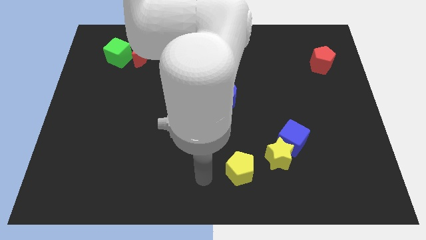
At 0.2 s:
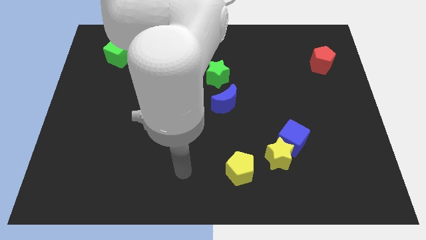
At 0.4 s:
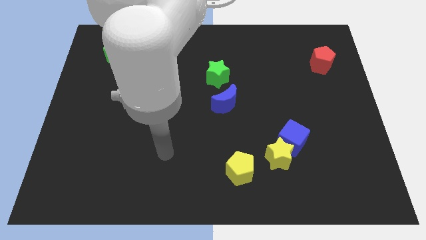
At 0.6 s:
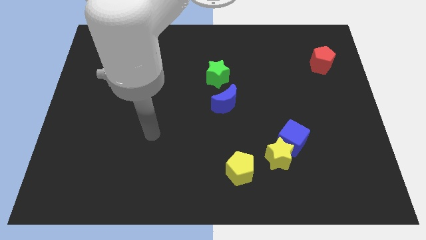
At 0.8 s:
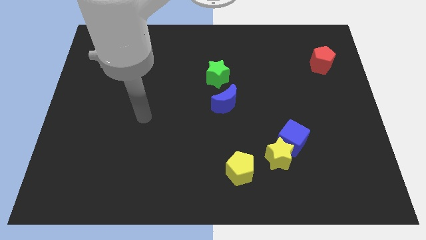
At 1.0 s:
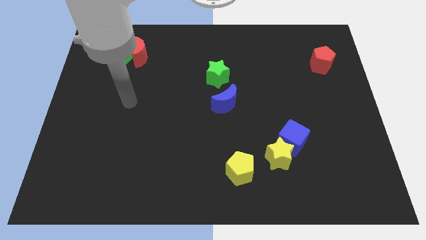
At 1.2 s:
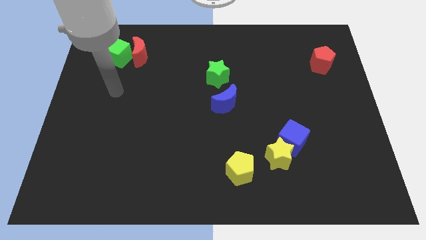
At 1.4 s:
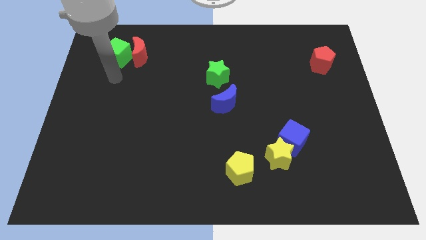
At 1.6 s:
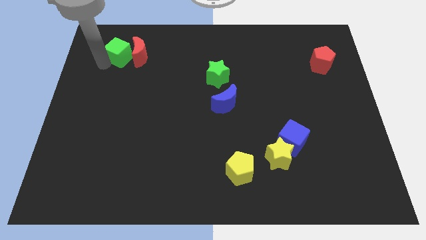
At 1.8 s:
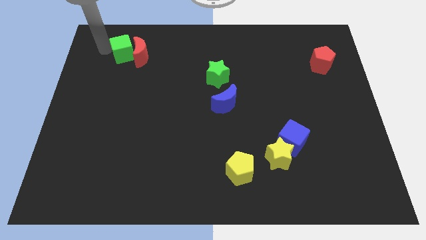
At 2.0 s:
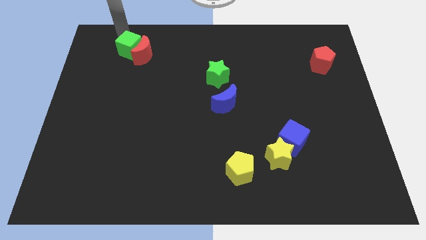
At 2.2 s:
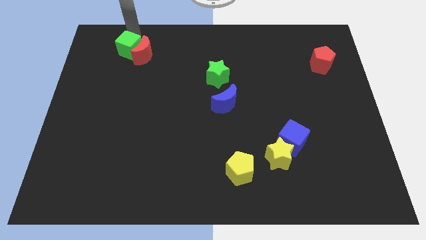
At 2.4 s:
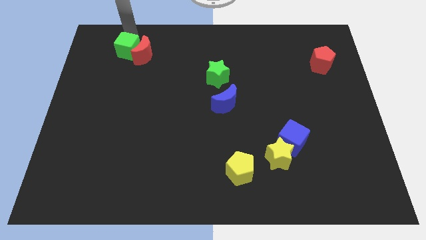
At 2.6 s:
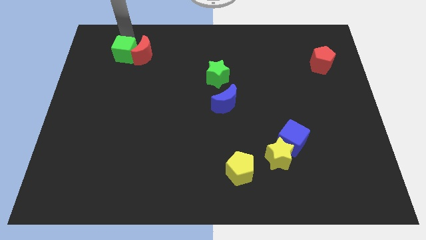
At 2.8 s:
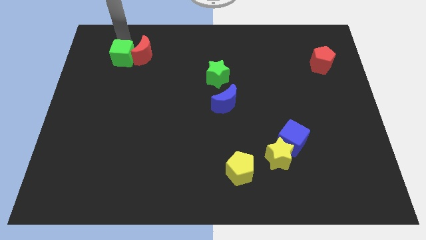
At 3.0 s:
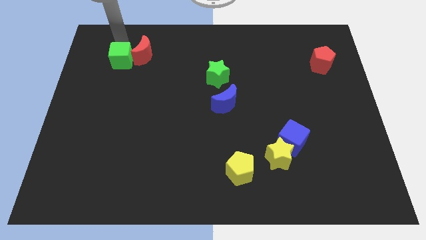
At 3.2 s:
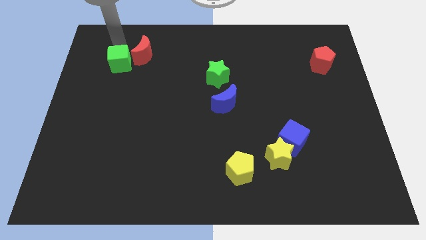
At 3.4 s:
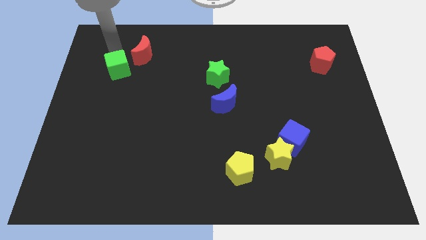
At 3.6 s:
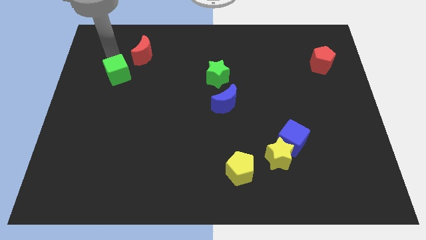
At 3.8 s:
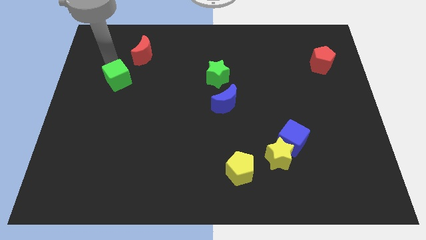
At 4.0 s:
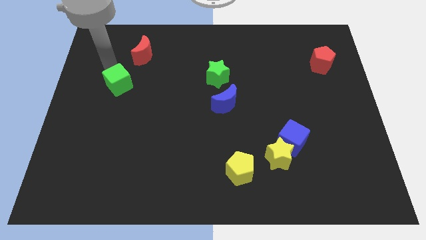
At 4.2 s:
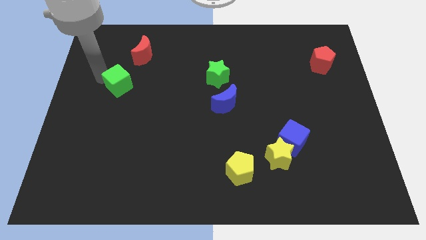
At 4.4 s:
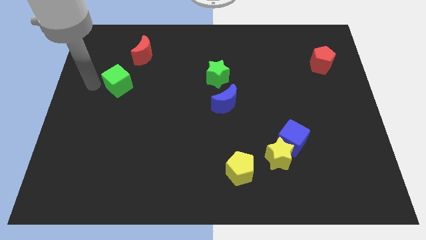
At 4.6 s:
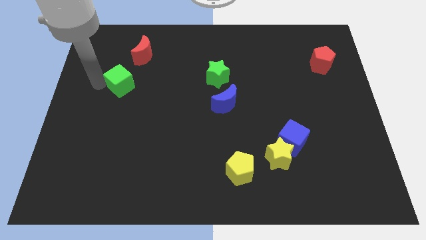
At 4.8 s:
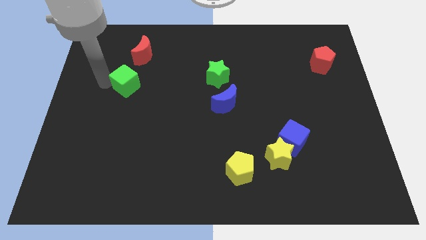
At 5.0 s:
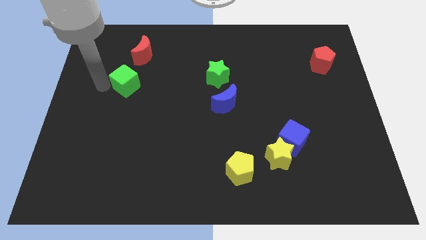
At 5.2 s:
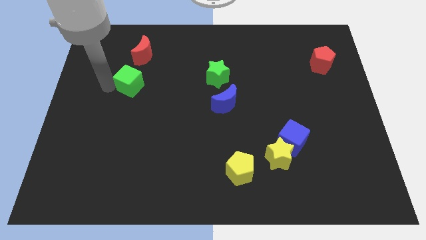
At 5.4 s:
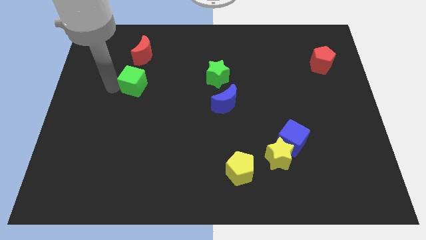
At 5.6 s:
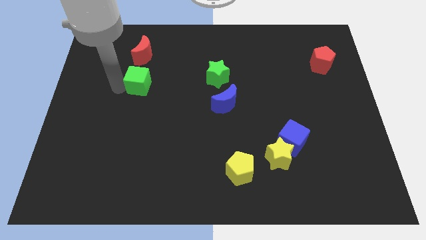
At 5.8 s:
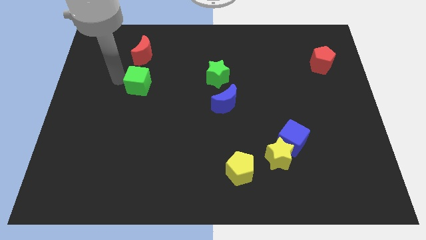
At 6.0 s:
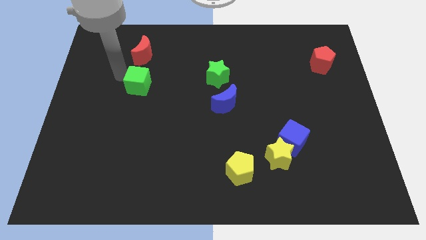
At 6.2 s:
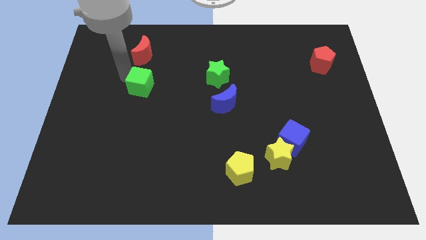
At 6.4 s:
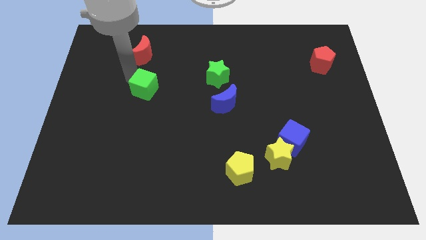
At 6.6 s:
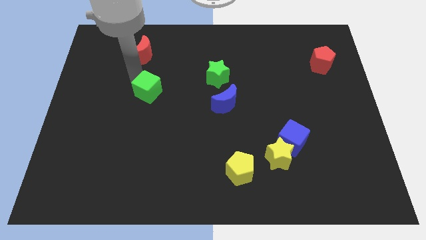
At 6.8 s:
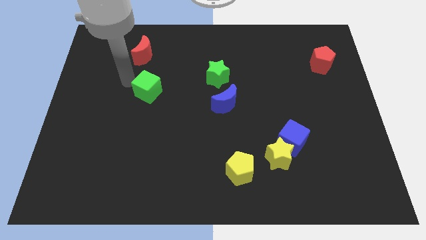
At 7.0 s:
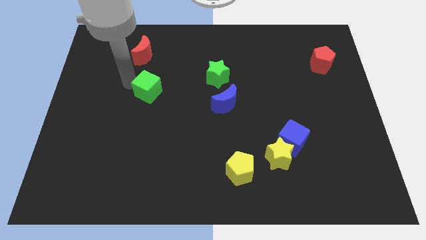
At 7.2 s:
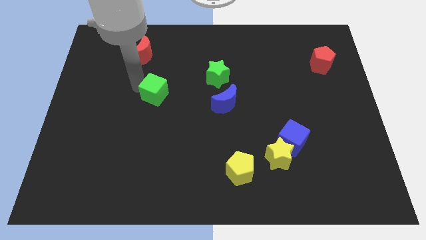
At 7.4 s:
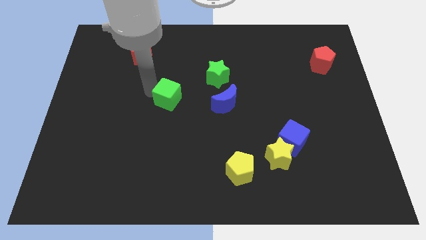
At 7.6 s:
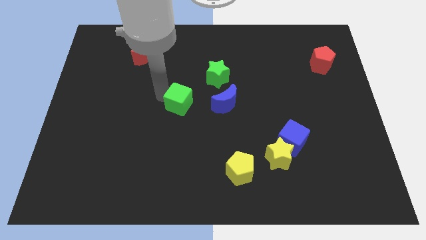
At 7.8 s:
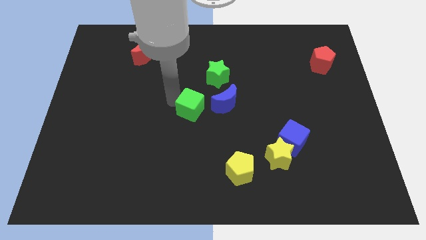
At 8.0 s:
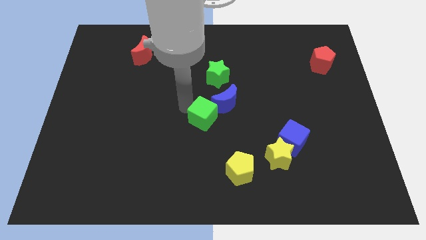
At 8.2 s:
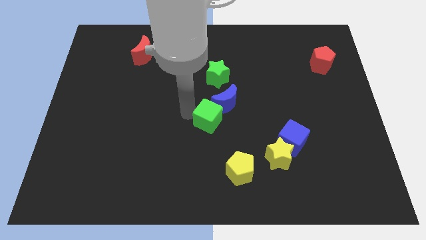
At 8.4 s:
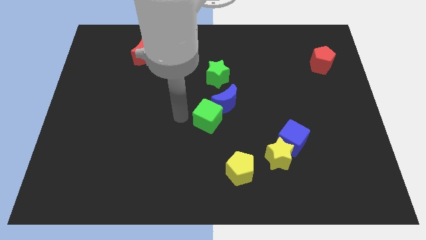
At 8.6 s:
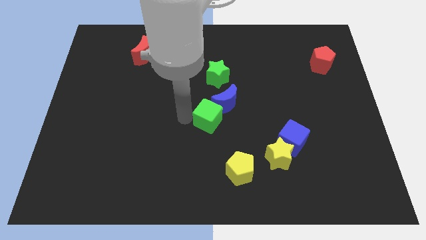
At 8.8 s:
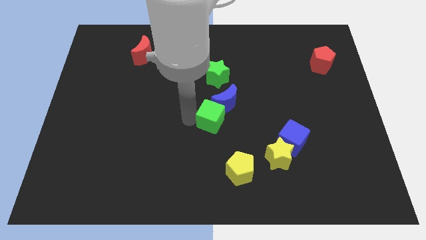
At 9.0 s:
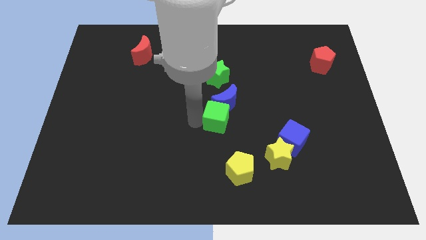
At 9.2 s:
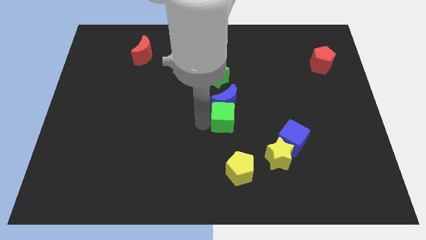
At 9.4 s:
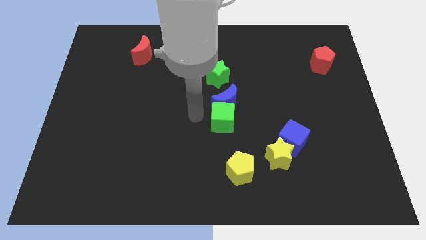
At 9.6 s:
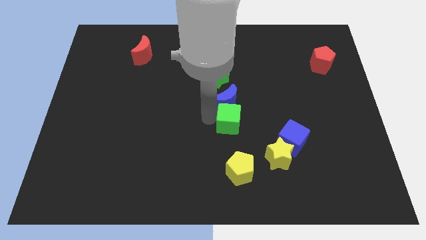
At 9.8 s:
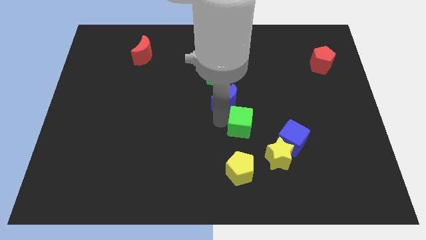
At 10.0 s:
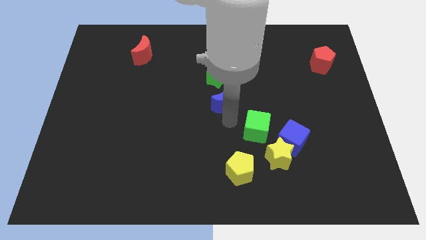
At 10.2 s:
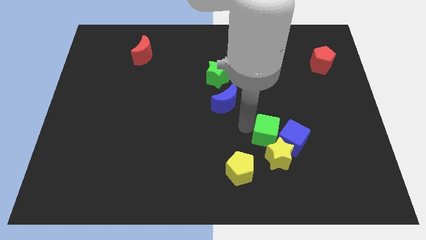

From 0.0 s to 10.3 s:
put the green cube close to the blue cube

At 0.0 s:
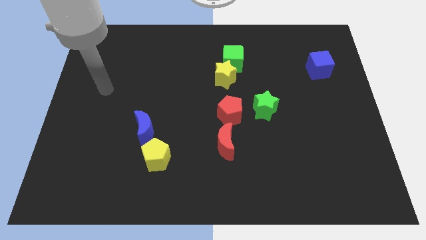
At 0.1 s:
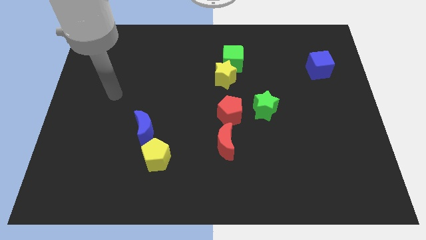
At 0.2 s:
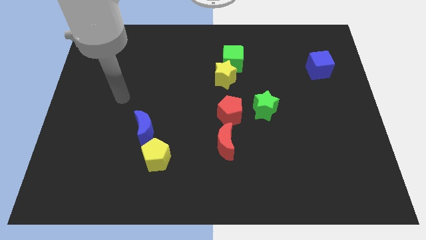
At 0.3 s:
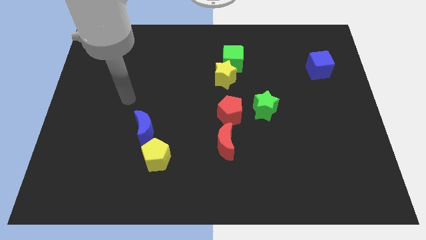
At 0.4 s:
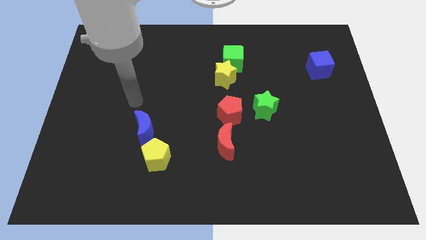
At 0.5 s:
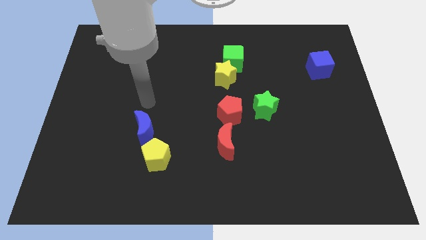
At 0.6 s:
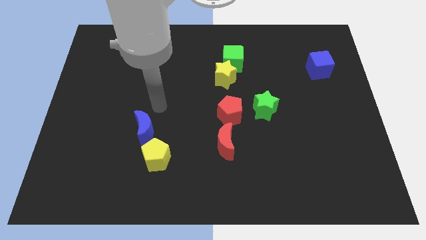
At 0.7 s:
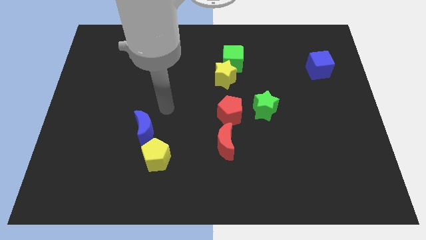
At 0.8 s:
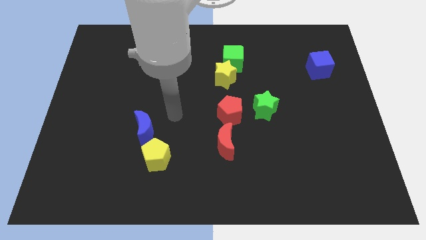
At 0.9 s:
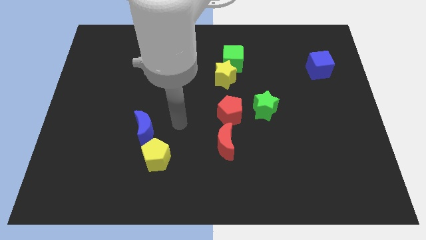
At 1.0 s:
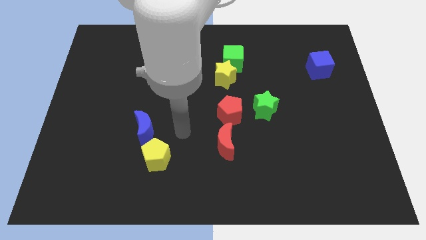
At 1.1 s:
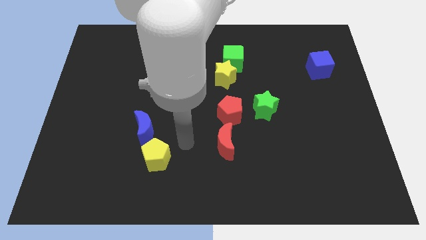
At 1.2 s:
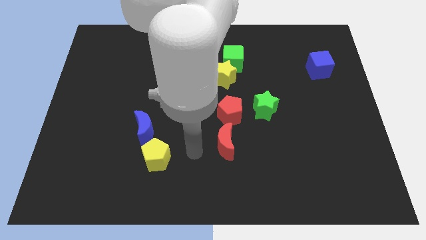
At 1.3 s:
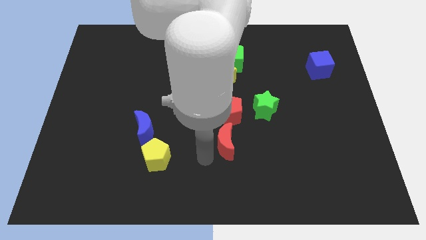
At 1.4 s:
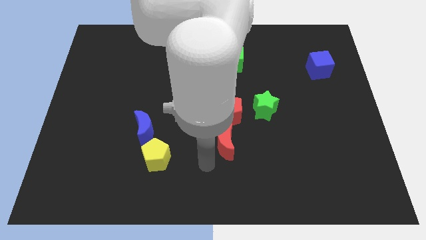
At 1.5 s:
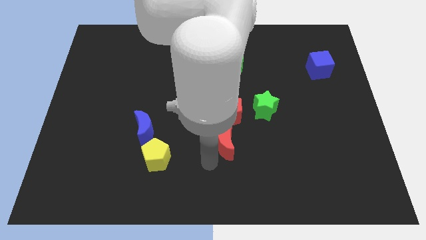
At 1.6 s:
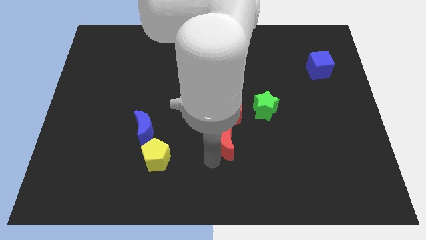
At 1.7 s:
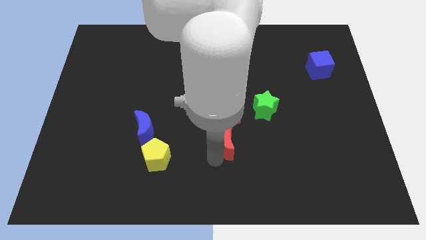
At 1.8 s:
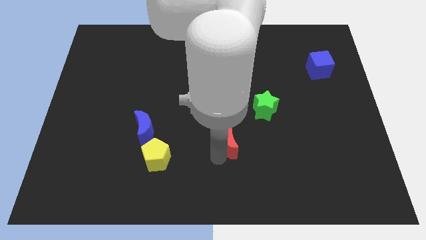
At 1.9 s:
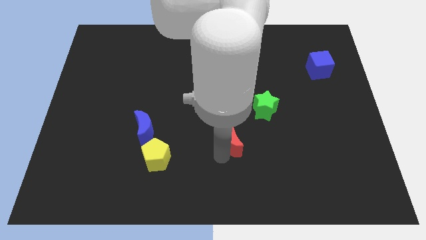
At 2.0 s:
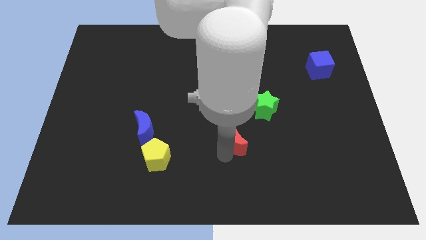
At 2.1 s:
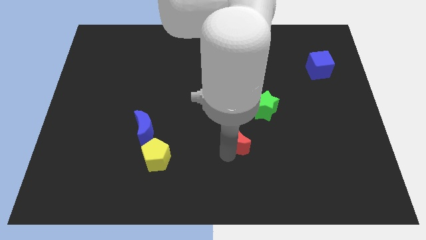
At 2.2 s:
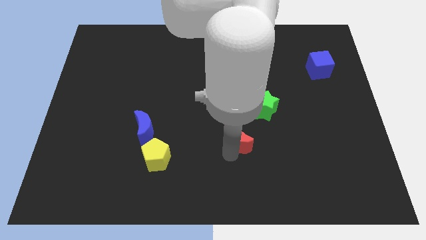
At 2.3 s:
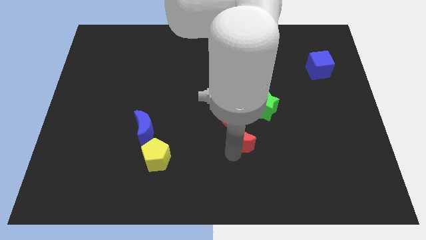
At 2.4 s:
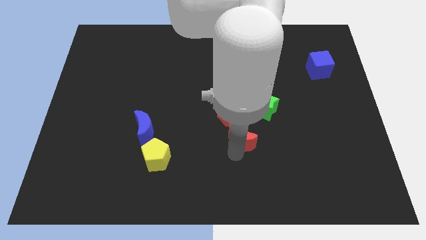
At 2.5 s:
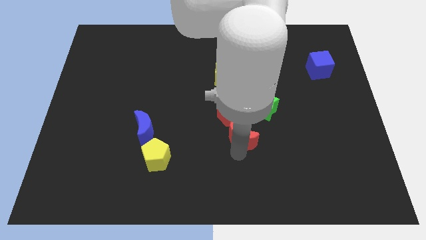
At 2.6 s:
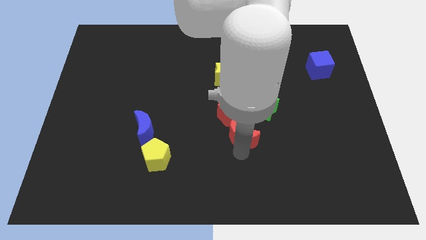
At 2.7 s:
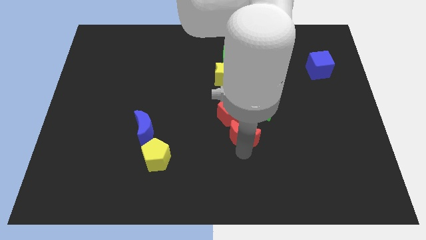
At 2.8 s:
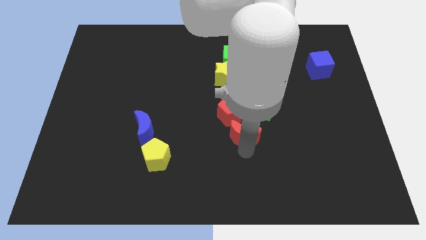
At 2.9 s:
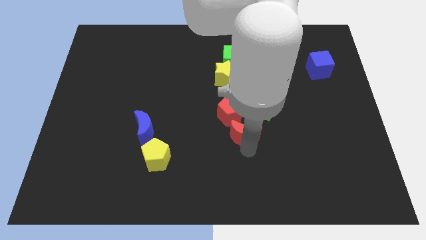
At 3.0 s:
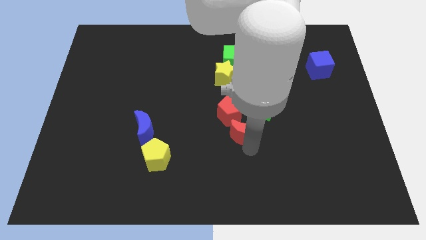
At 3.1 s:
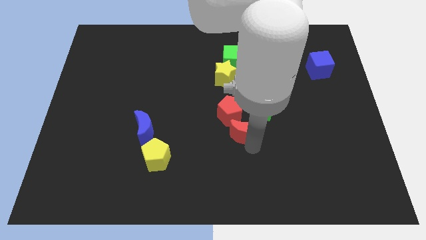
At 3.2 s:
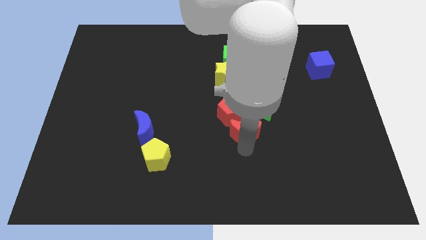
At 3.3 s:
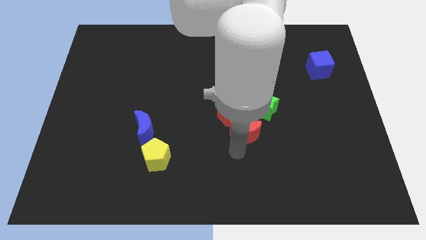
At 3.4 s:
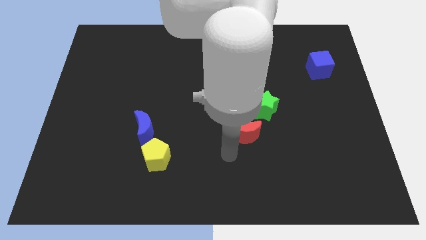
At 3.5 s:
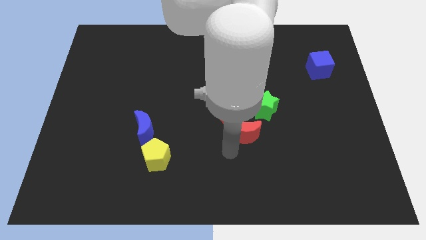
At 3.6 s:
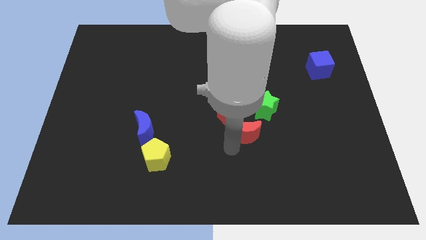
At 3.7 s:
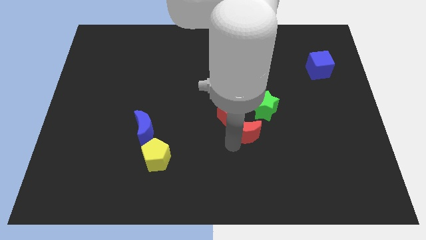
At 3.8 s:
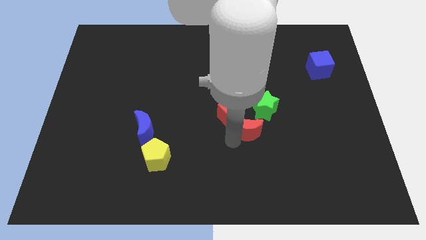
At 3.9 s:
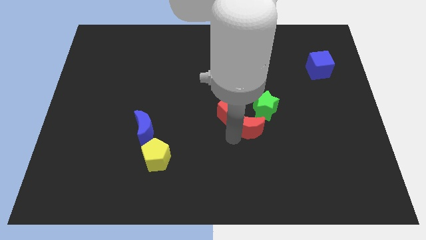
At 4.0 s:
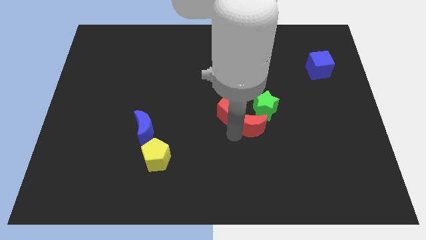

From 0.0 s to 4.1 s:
move the red moon next to the green star
